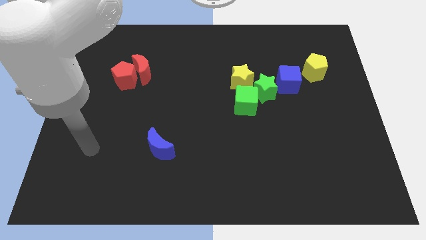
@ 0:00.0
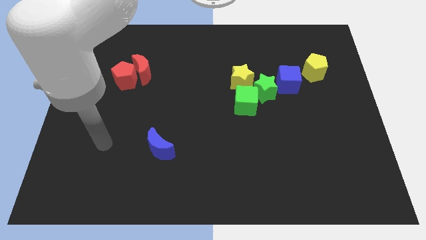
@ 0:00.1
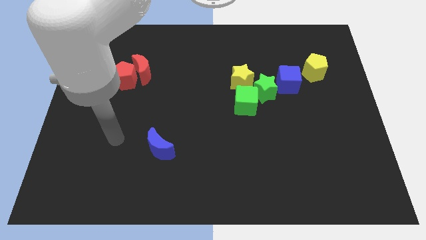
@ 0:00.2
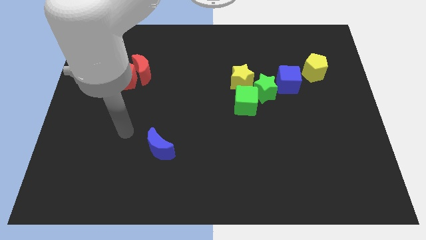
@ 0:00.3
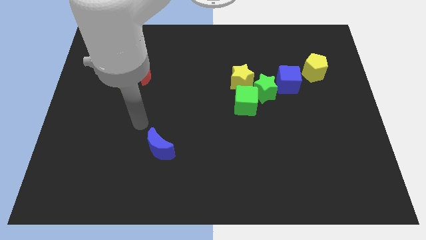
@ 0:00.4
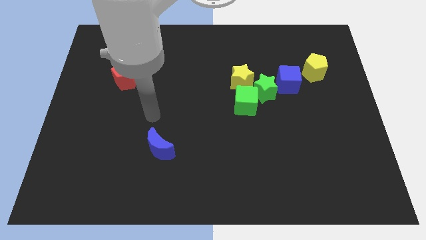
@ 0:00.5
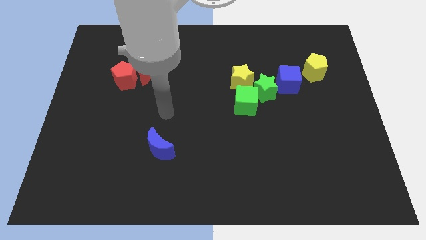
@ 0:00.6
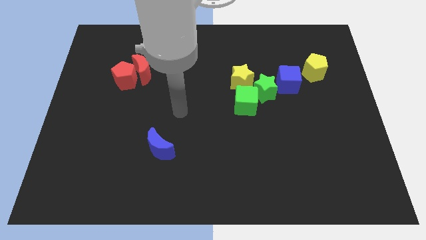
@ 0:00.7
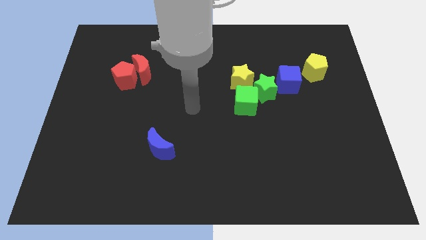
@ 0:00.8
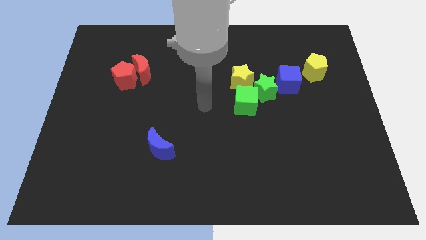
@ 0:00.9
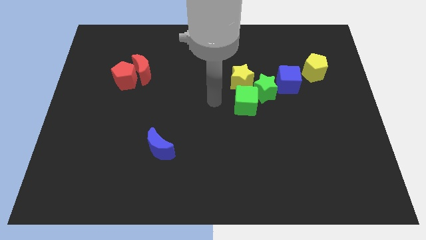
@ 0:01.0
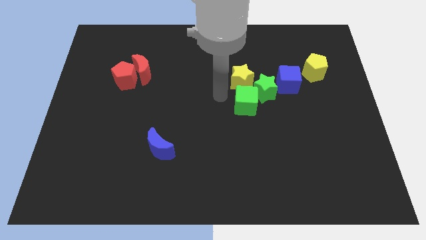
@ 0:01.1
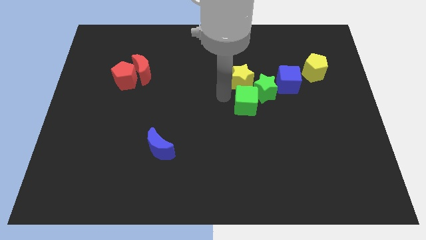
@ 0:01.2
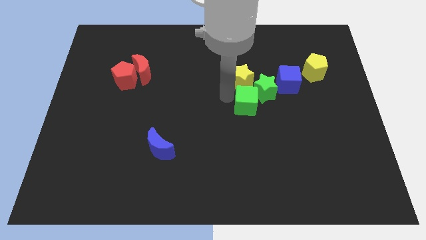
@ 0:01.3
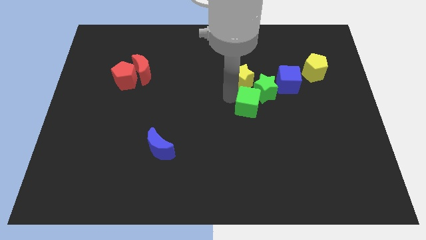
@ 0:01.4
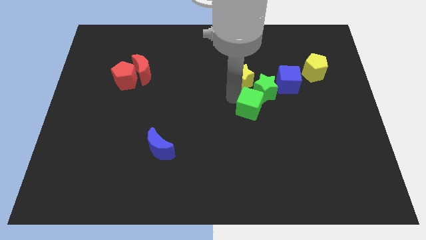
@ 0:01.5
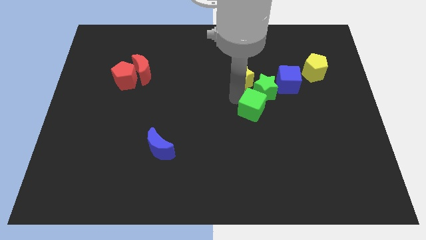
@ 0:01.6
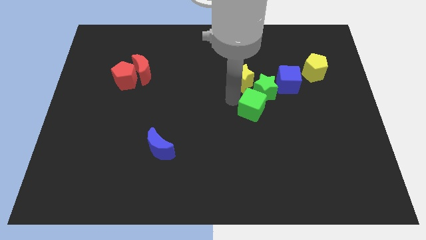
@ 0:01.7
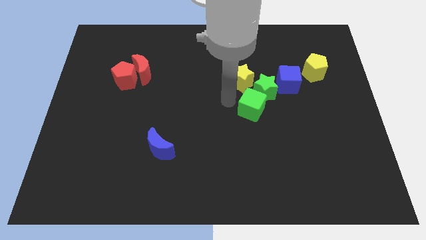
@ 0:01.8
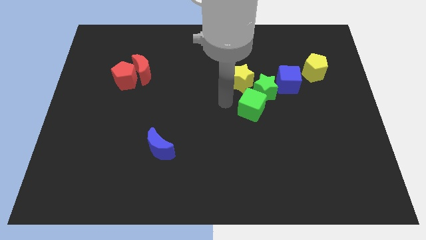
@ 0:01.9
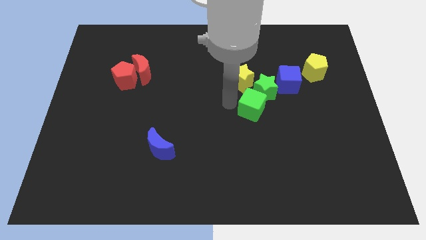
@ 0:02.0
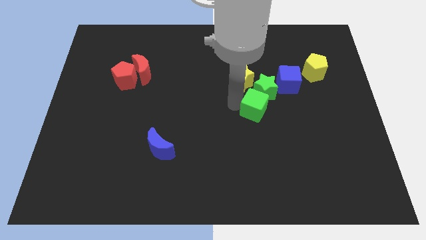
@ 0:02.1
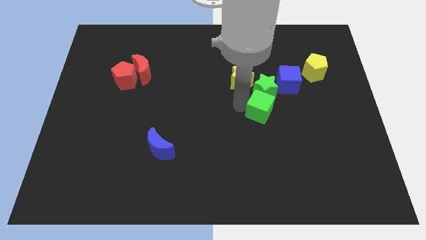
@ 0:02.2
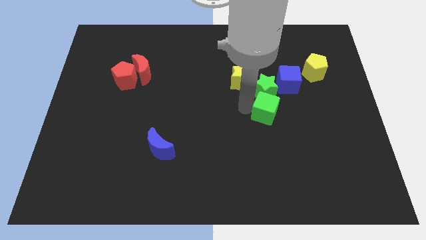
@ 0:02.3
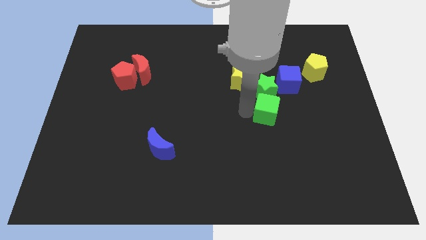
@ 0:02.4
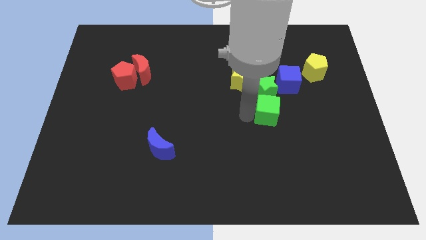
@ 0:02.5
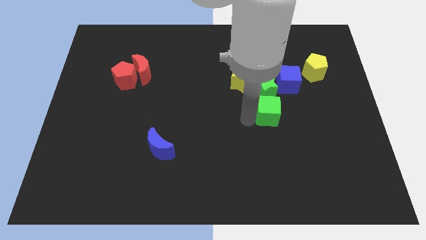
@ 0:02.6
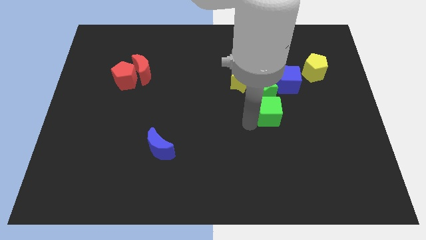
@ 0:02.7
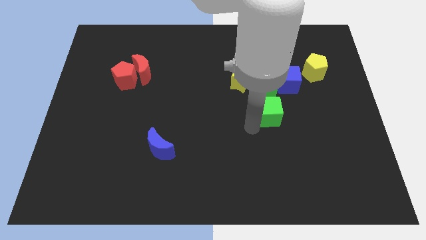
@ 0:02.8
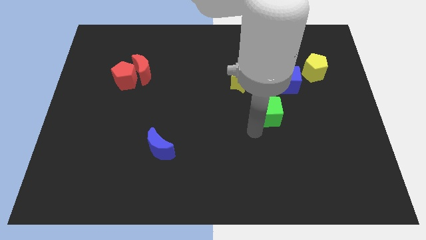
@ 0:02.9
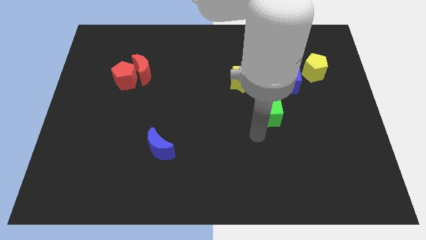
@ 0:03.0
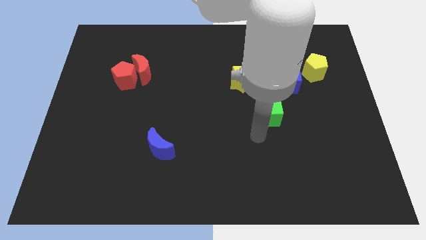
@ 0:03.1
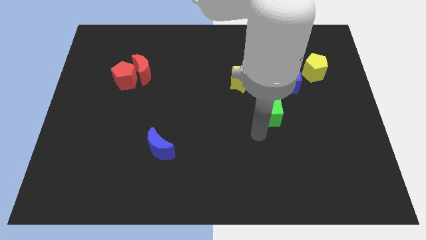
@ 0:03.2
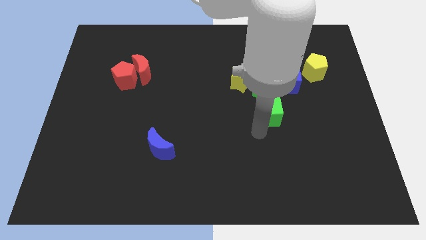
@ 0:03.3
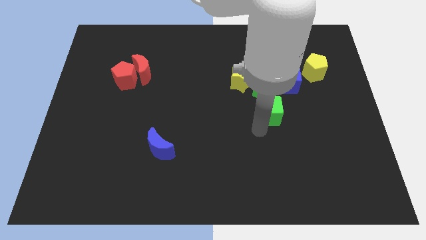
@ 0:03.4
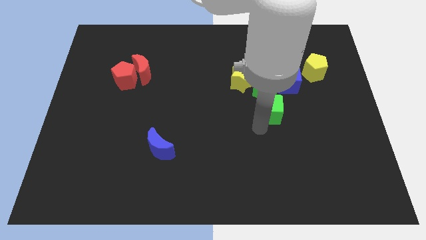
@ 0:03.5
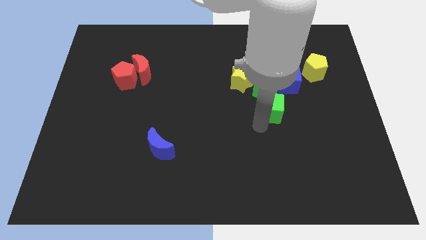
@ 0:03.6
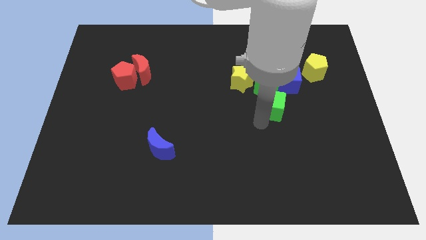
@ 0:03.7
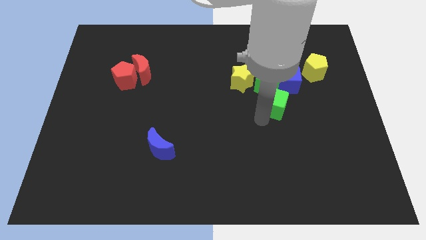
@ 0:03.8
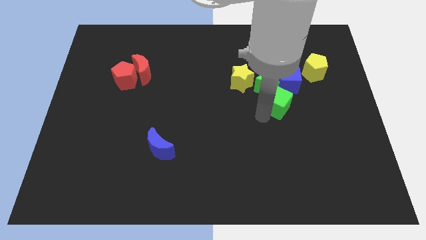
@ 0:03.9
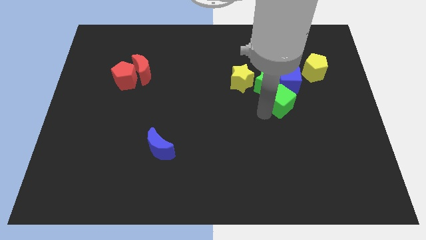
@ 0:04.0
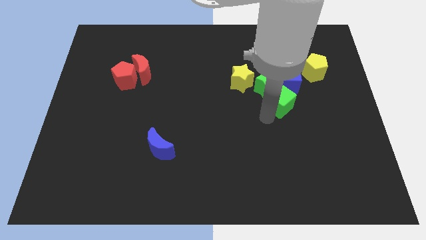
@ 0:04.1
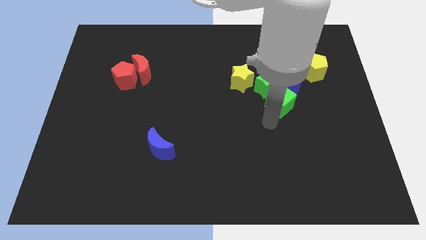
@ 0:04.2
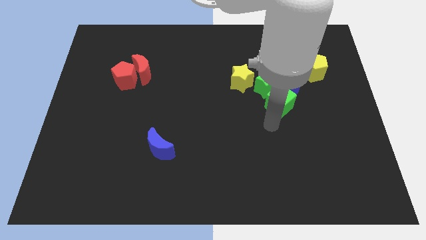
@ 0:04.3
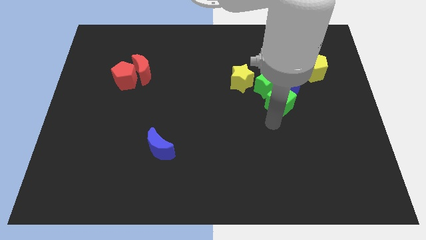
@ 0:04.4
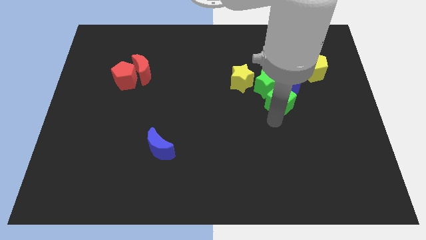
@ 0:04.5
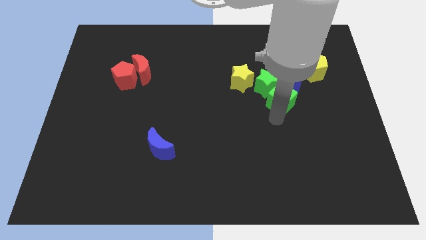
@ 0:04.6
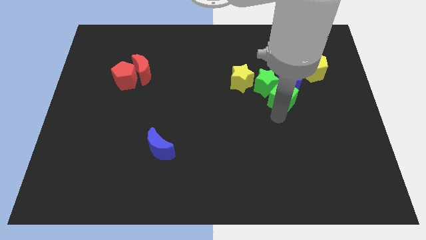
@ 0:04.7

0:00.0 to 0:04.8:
slide the green cube towards the blue cube

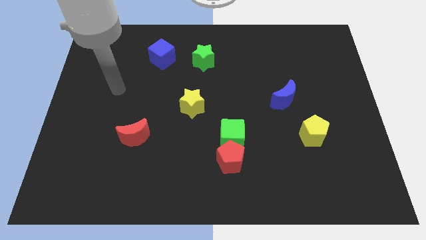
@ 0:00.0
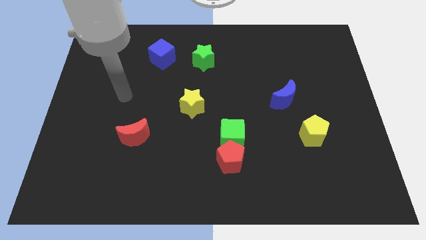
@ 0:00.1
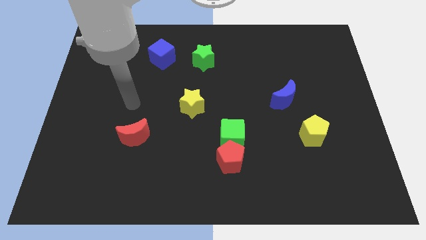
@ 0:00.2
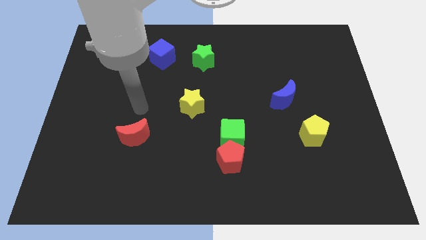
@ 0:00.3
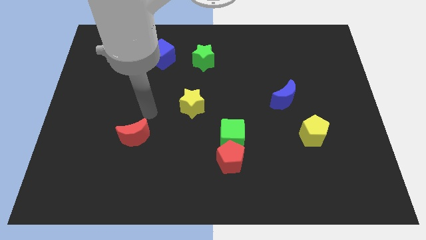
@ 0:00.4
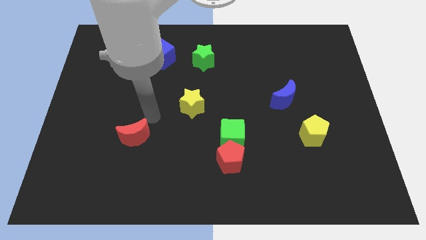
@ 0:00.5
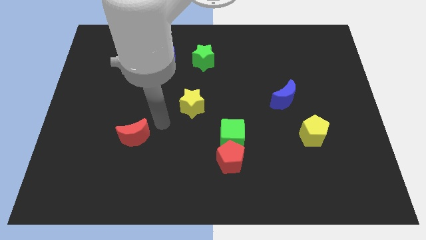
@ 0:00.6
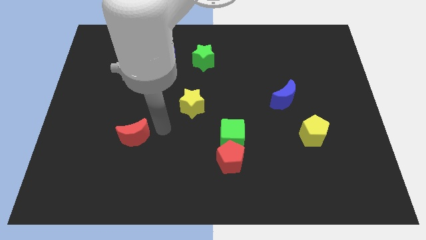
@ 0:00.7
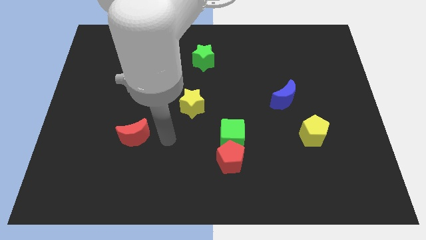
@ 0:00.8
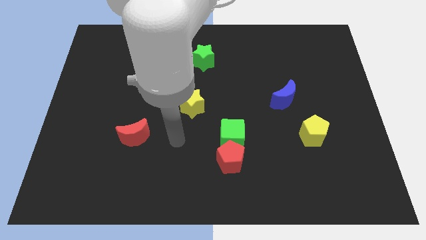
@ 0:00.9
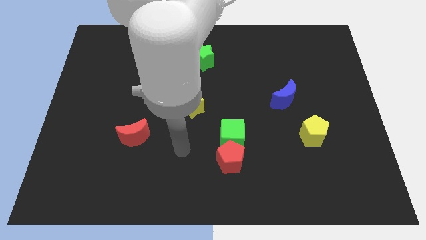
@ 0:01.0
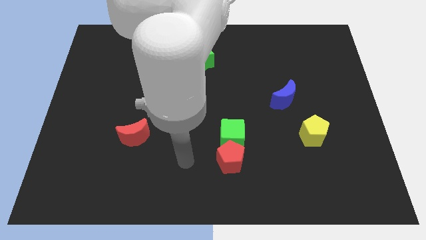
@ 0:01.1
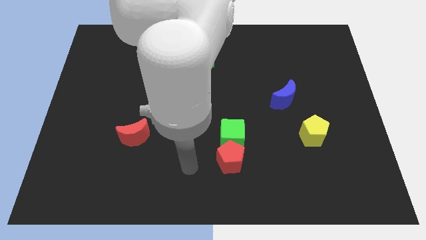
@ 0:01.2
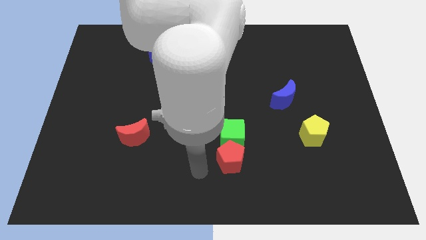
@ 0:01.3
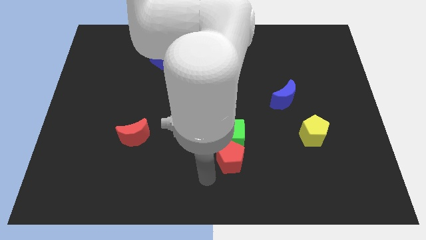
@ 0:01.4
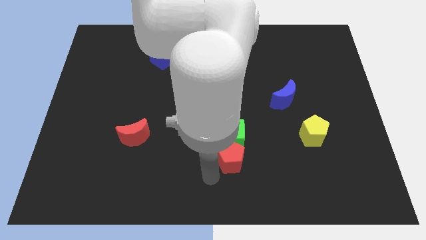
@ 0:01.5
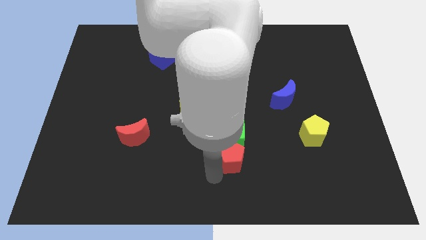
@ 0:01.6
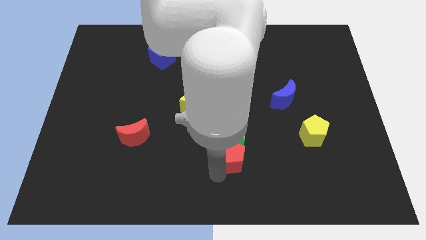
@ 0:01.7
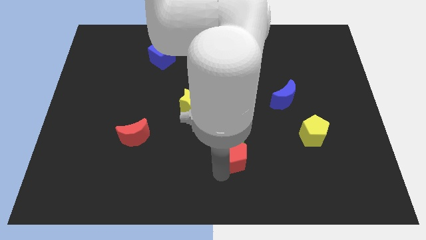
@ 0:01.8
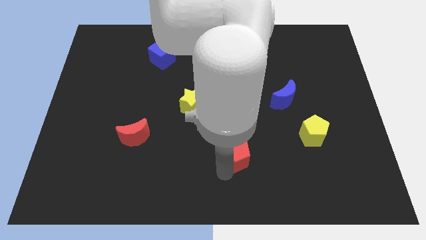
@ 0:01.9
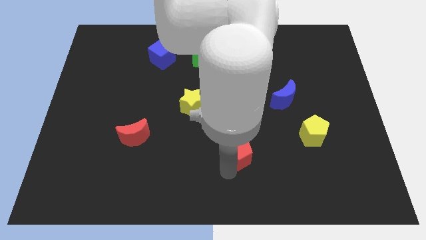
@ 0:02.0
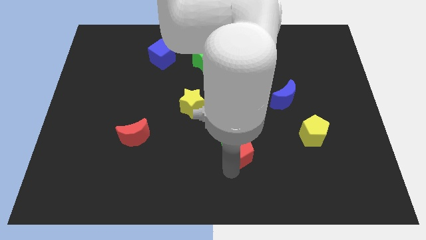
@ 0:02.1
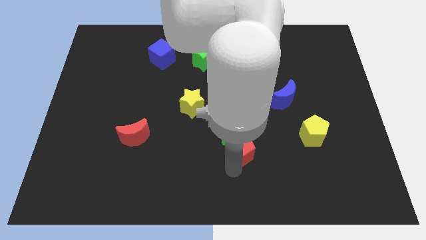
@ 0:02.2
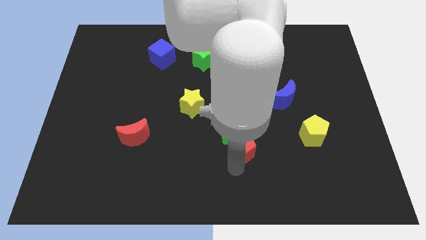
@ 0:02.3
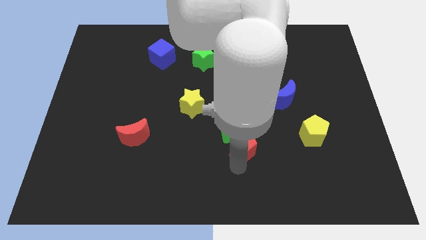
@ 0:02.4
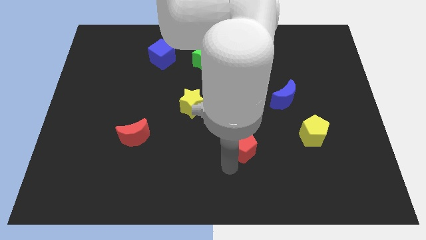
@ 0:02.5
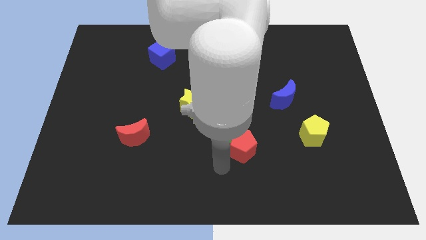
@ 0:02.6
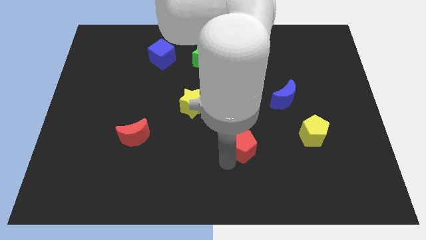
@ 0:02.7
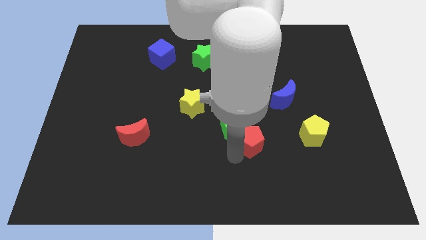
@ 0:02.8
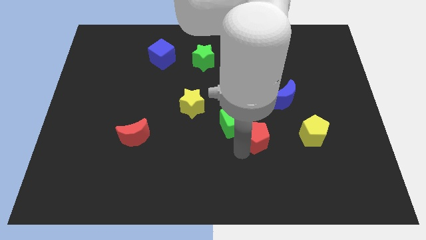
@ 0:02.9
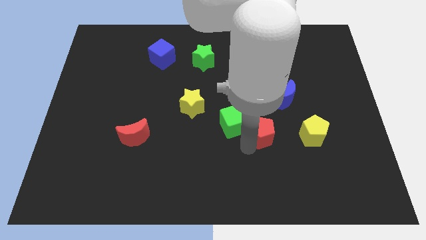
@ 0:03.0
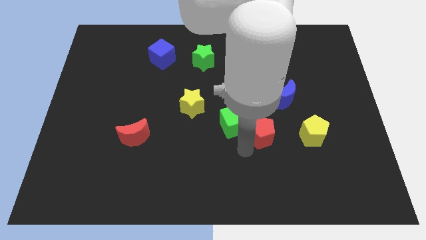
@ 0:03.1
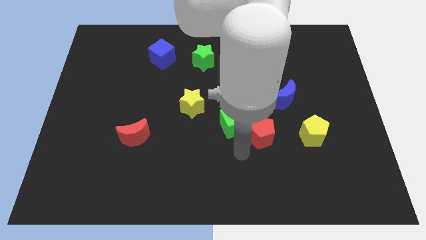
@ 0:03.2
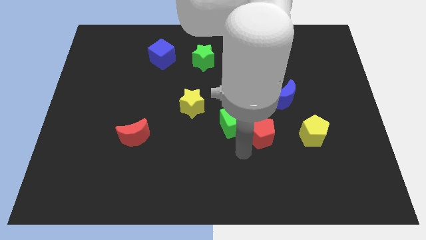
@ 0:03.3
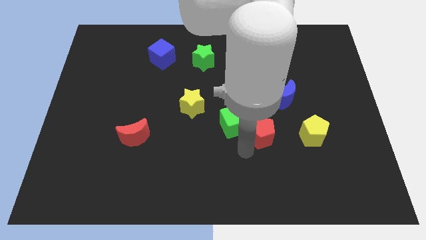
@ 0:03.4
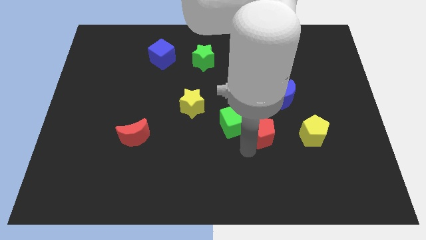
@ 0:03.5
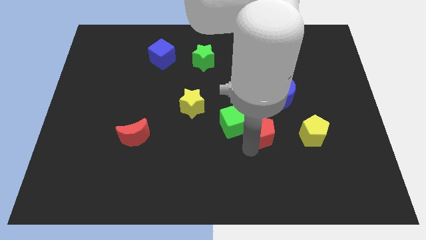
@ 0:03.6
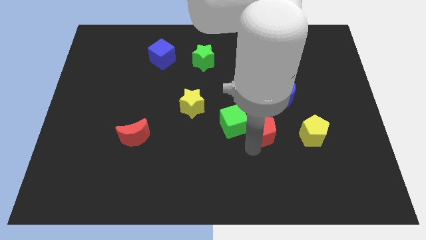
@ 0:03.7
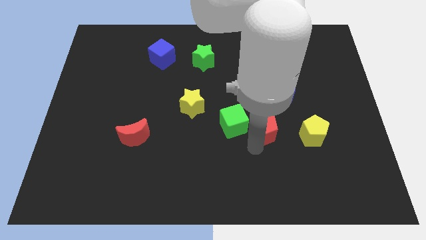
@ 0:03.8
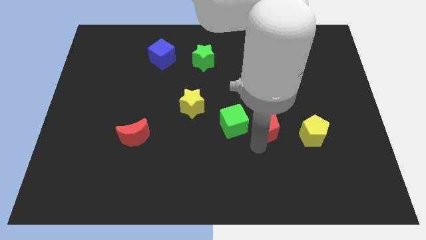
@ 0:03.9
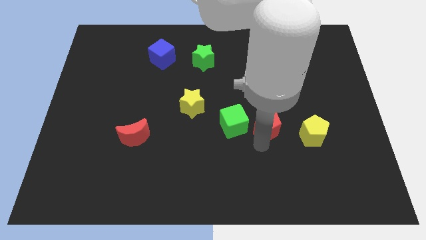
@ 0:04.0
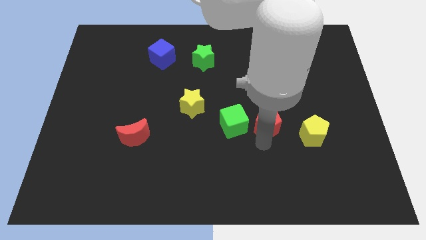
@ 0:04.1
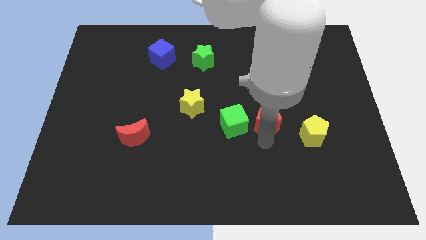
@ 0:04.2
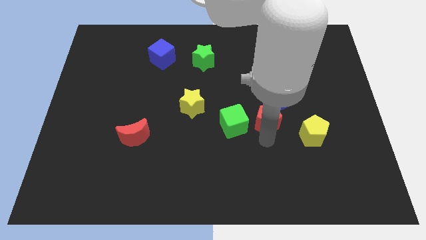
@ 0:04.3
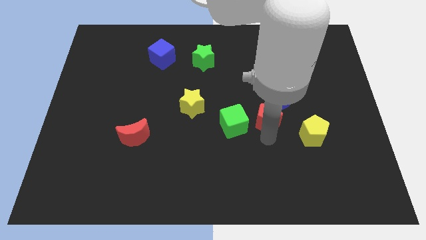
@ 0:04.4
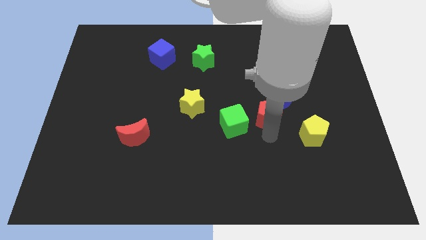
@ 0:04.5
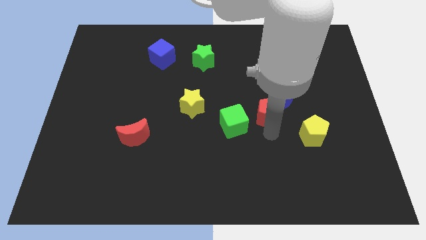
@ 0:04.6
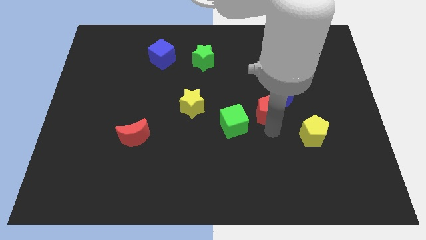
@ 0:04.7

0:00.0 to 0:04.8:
move the red pentagon next to the blue moon
